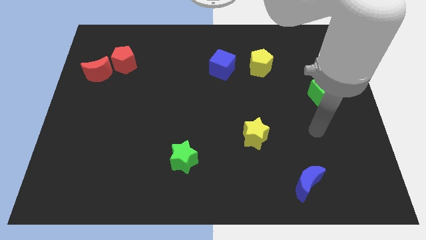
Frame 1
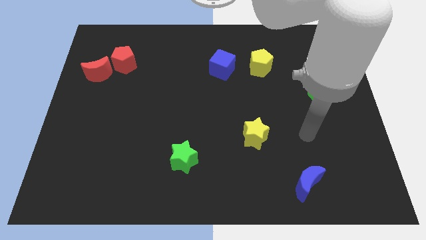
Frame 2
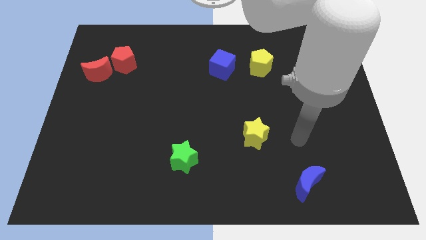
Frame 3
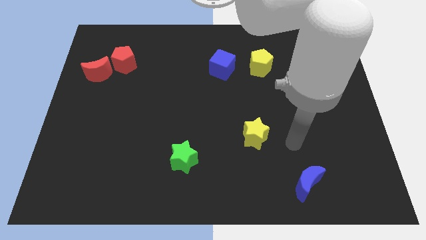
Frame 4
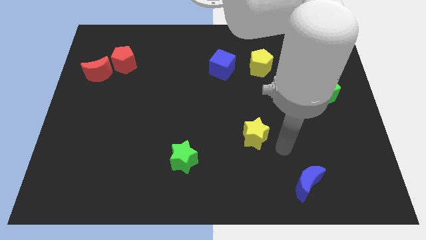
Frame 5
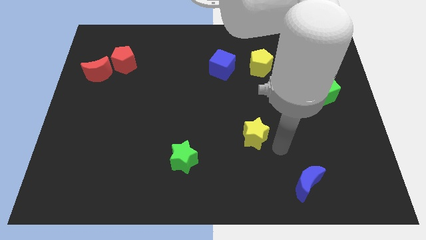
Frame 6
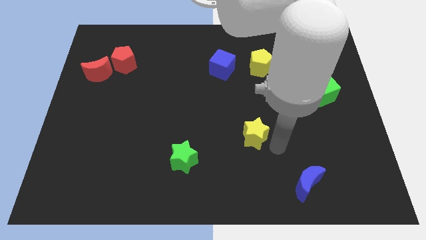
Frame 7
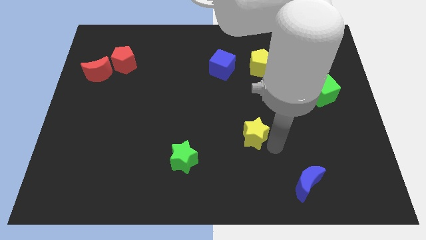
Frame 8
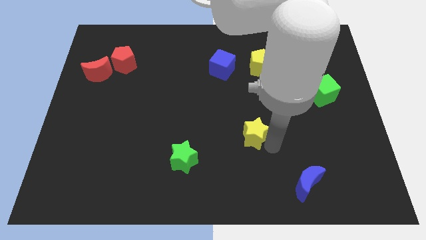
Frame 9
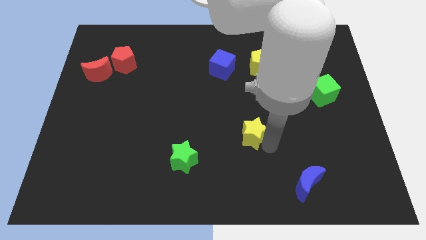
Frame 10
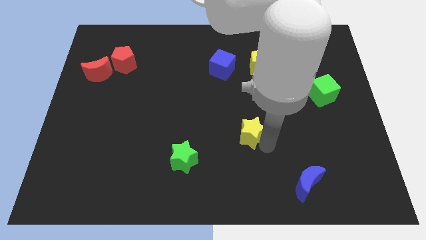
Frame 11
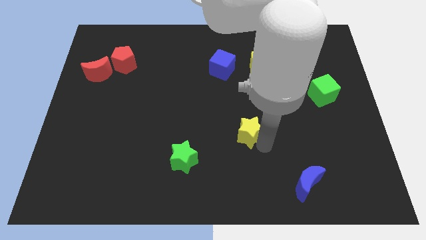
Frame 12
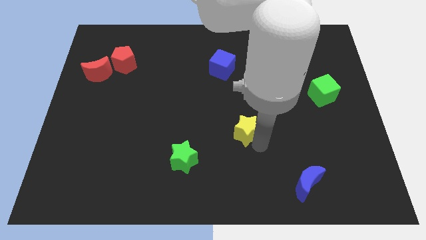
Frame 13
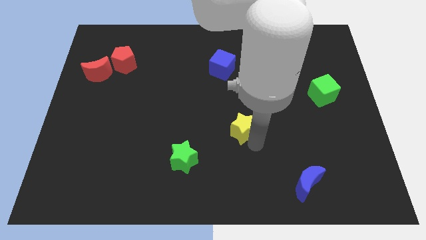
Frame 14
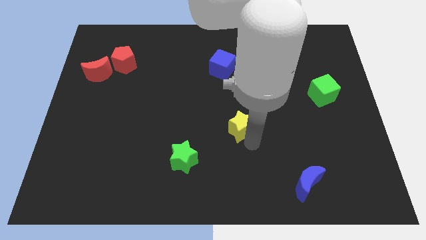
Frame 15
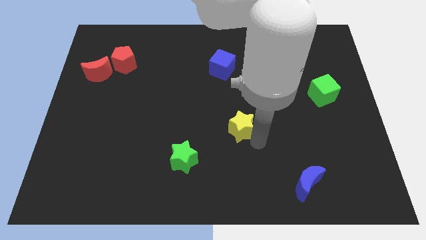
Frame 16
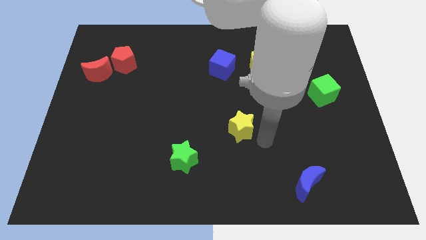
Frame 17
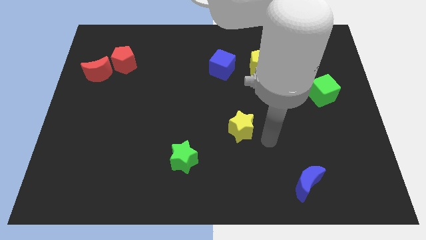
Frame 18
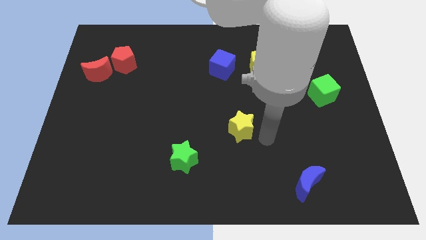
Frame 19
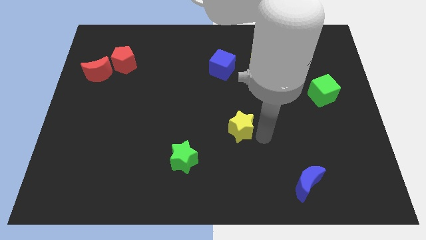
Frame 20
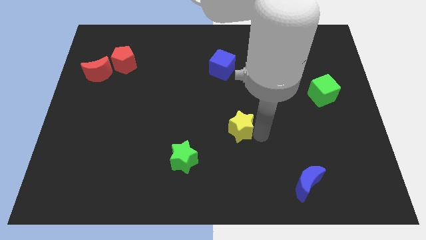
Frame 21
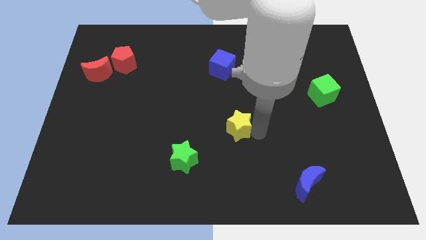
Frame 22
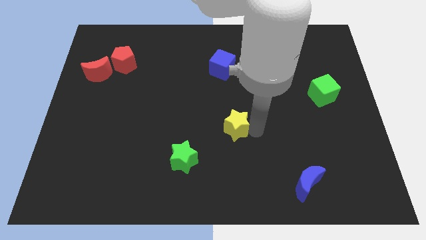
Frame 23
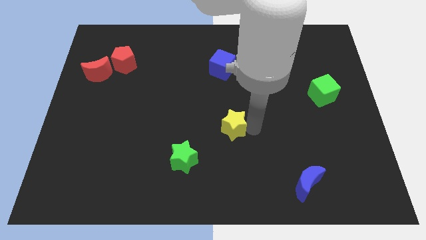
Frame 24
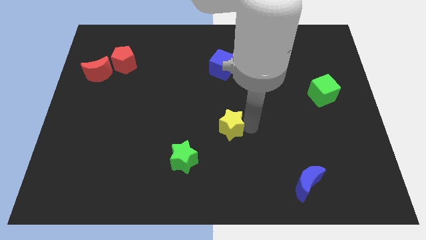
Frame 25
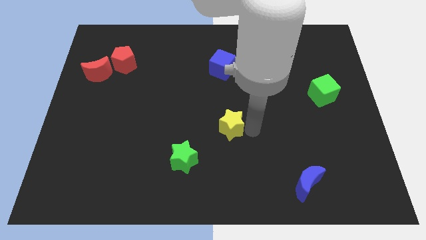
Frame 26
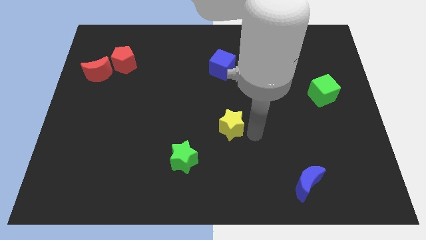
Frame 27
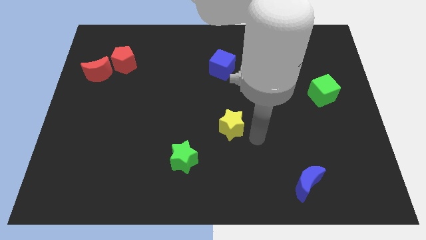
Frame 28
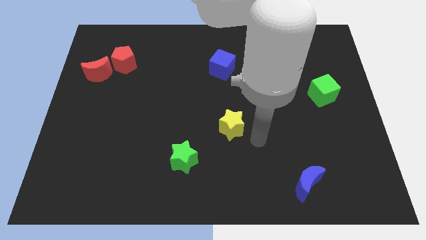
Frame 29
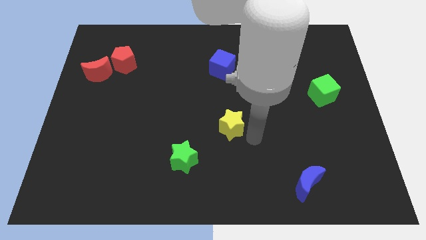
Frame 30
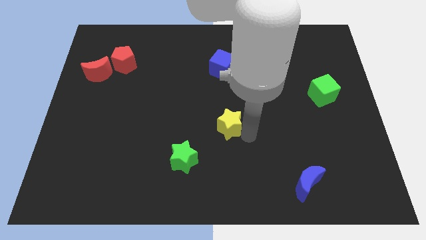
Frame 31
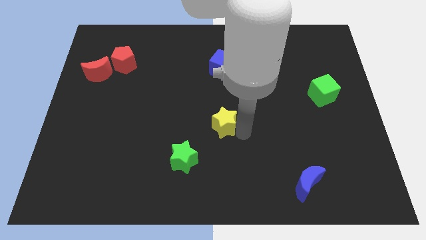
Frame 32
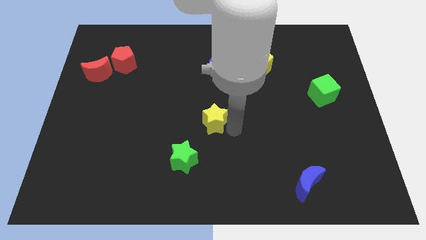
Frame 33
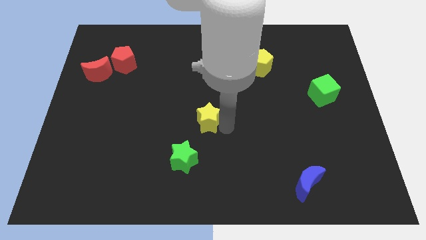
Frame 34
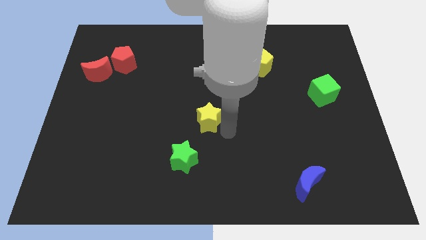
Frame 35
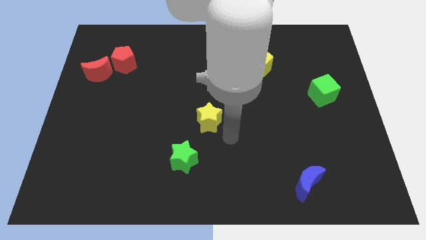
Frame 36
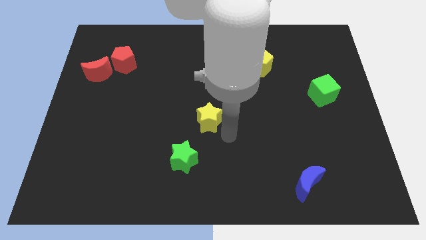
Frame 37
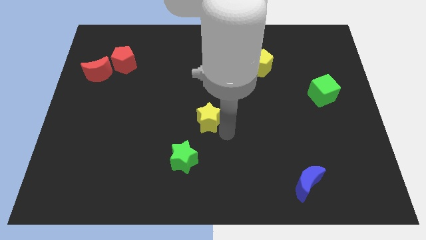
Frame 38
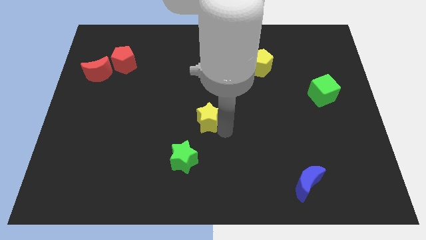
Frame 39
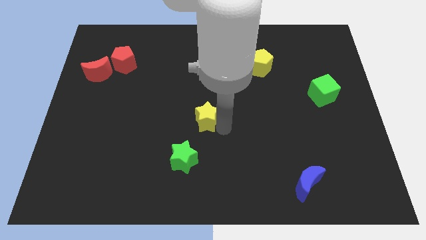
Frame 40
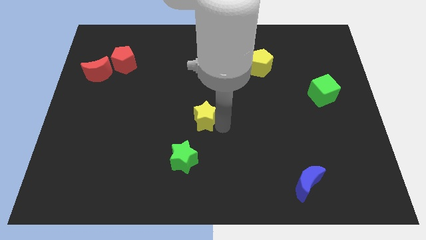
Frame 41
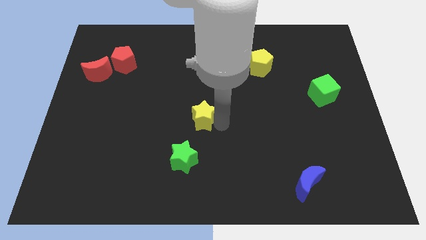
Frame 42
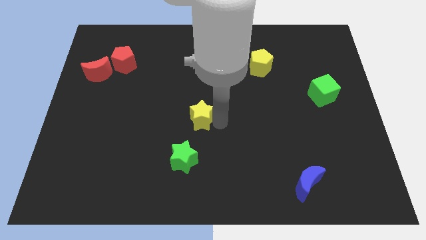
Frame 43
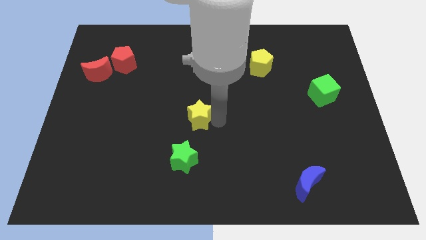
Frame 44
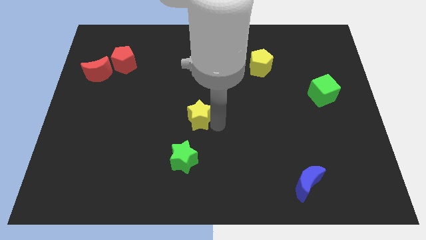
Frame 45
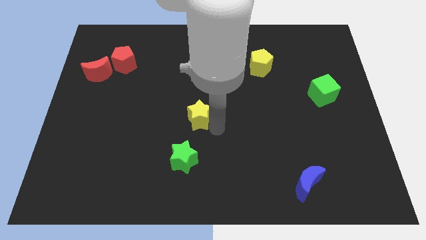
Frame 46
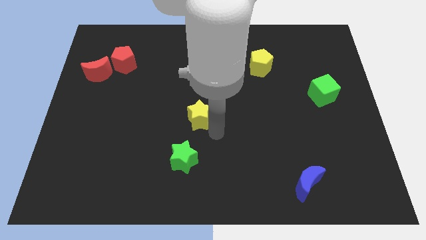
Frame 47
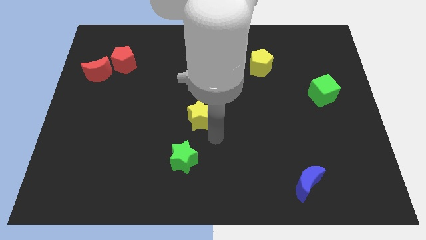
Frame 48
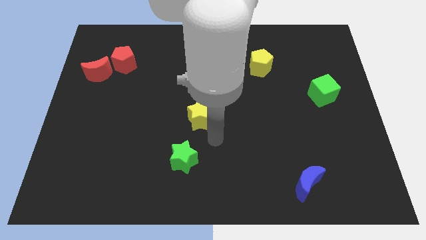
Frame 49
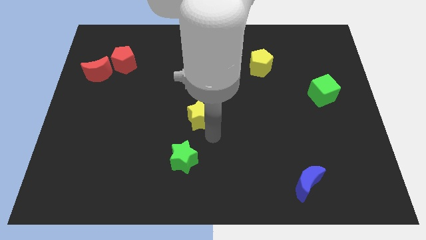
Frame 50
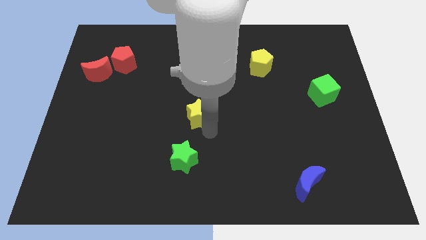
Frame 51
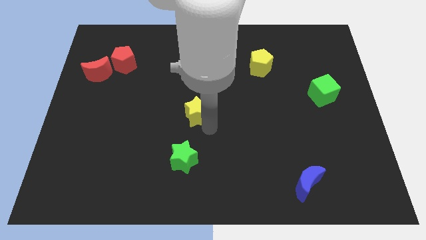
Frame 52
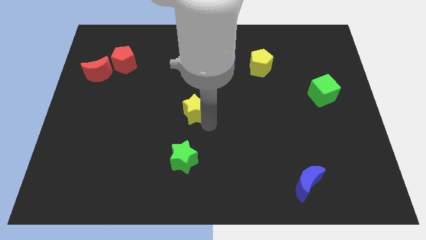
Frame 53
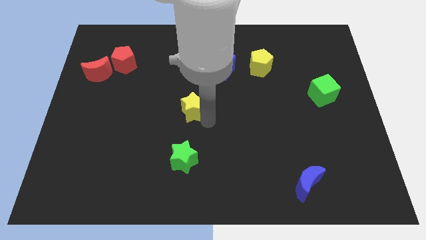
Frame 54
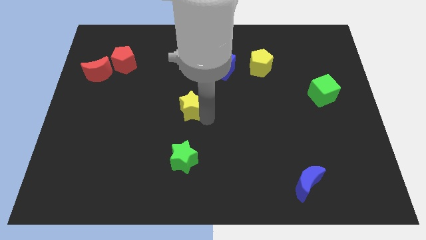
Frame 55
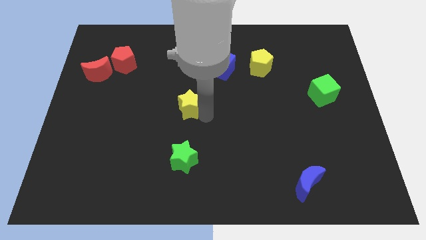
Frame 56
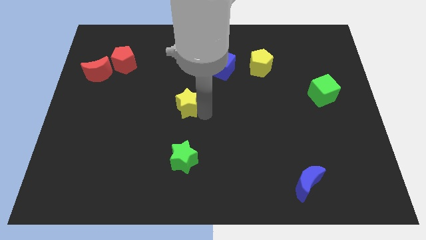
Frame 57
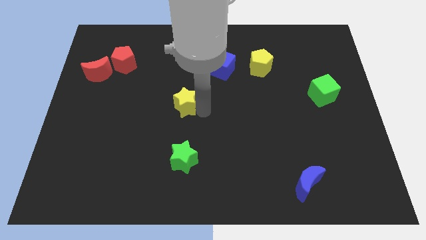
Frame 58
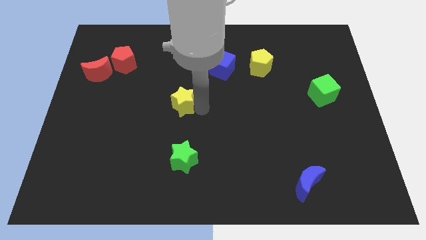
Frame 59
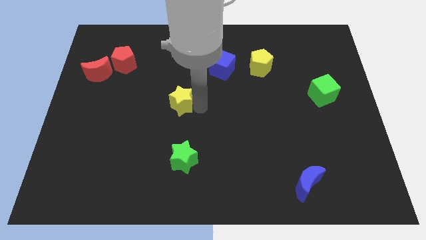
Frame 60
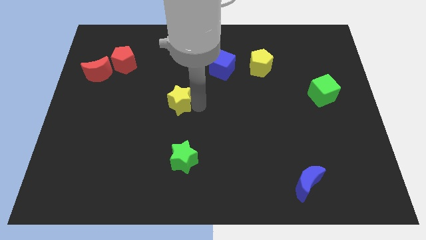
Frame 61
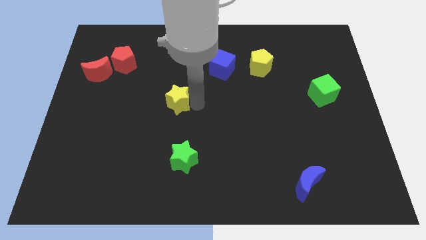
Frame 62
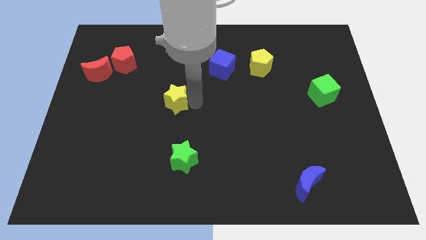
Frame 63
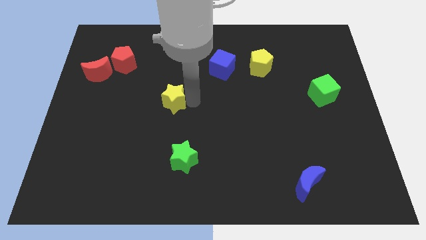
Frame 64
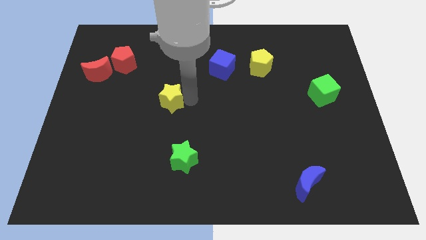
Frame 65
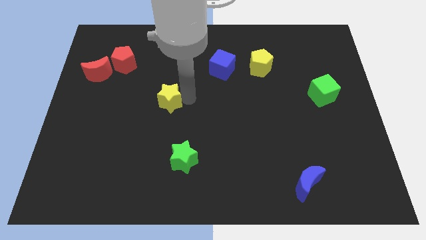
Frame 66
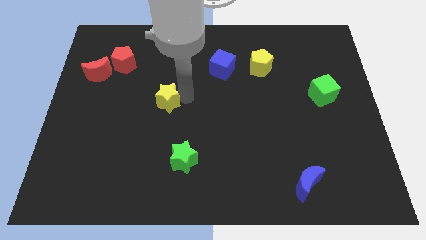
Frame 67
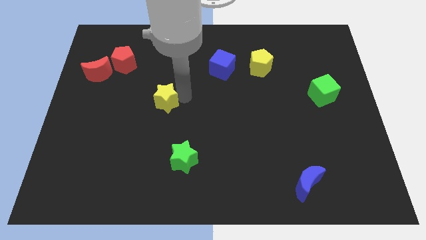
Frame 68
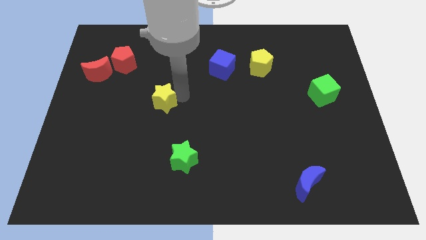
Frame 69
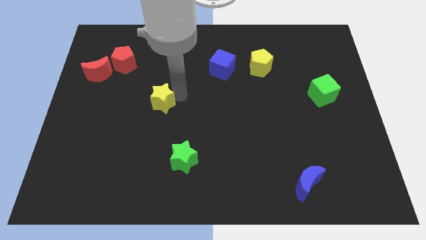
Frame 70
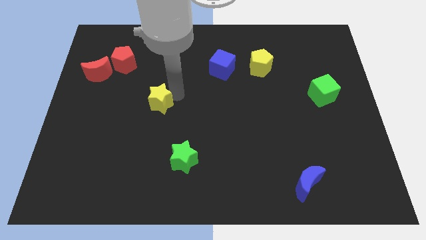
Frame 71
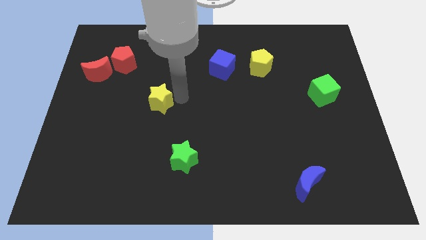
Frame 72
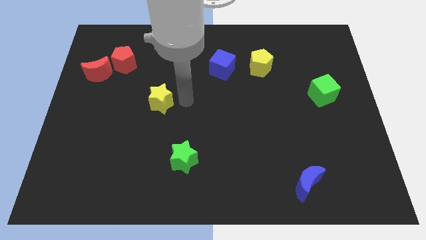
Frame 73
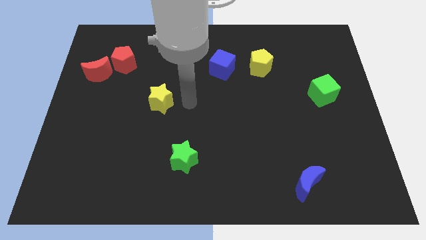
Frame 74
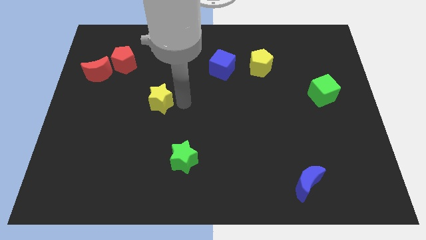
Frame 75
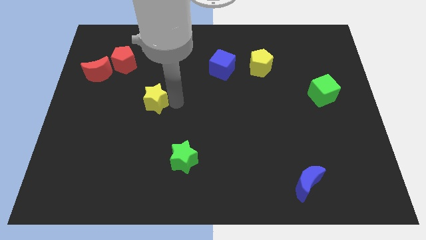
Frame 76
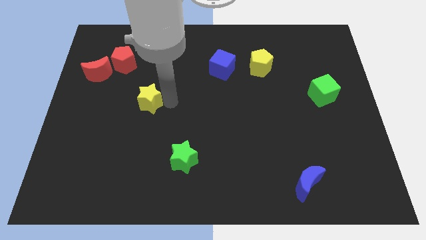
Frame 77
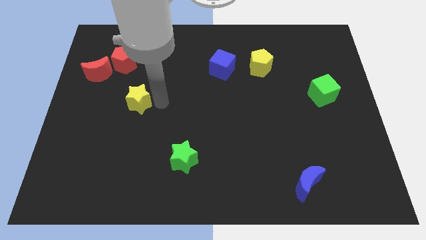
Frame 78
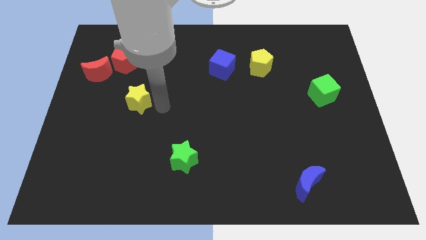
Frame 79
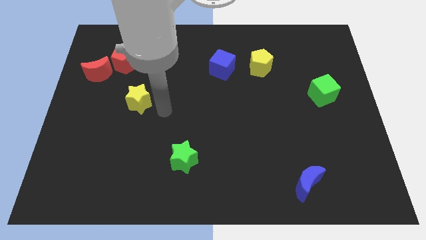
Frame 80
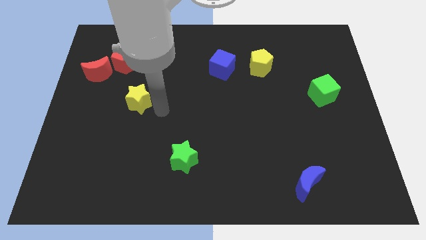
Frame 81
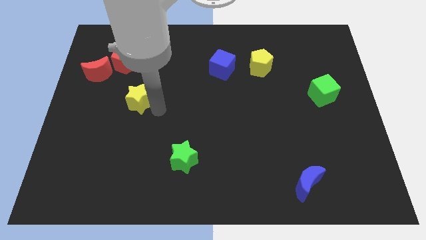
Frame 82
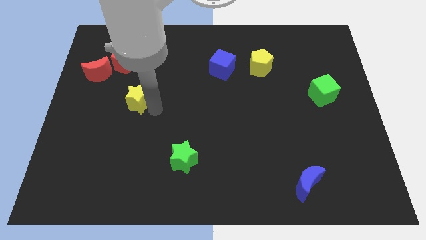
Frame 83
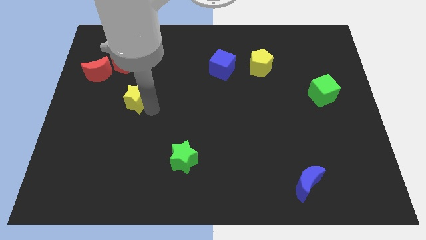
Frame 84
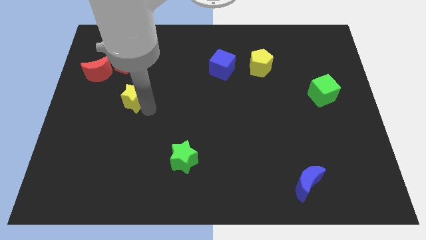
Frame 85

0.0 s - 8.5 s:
put the yellow star to the bottom of the red pentagon
